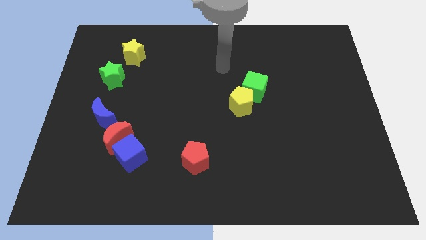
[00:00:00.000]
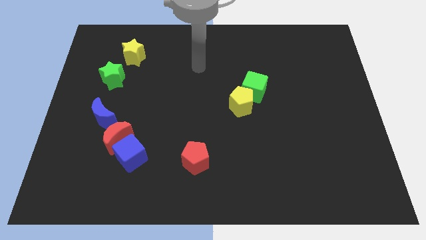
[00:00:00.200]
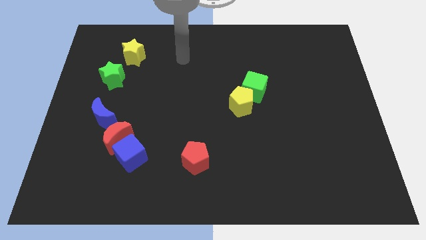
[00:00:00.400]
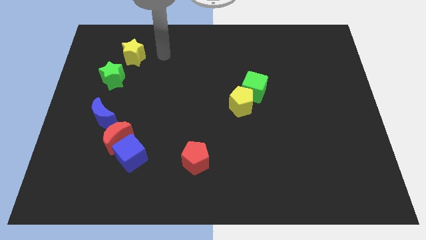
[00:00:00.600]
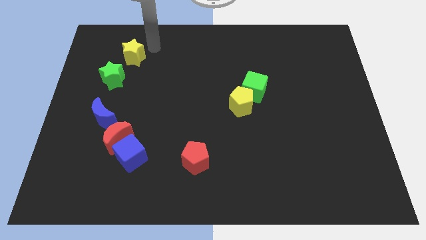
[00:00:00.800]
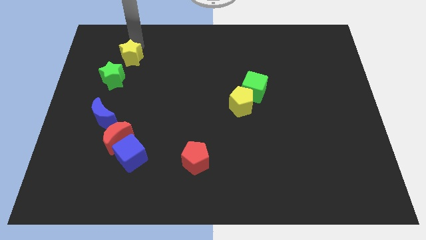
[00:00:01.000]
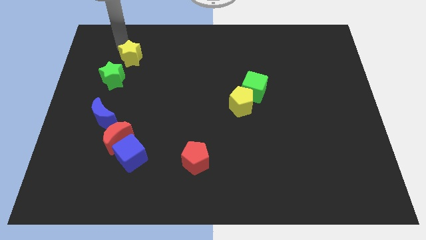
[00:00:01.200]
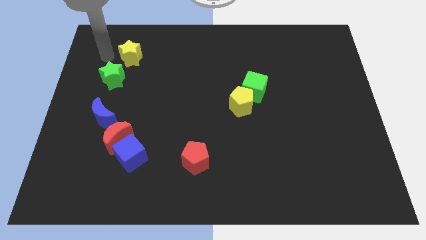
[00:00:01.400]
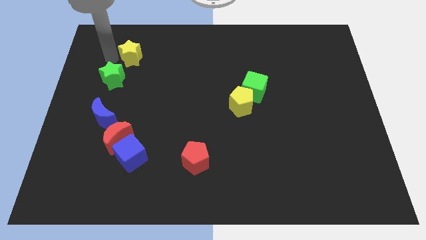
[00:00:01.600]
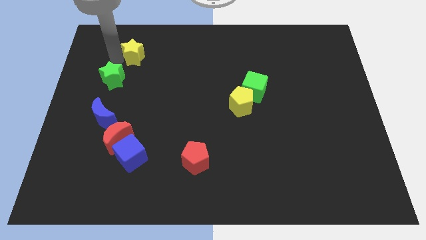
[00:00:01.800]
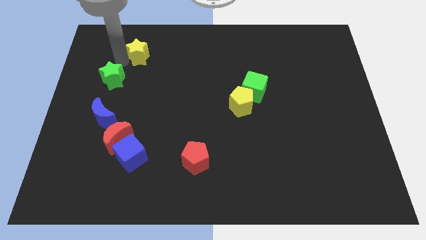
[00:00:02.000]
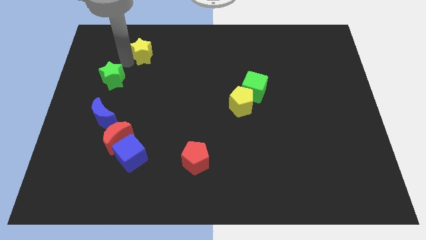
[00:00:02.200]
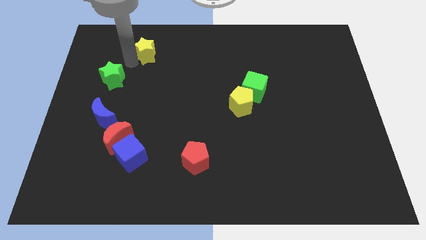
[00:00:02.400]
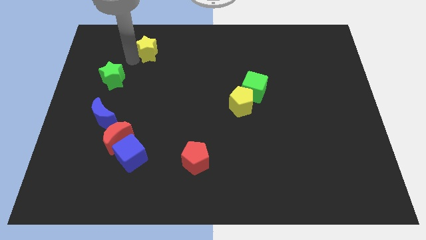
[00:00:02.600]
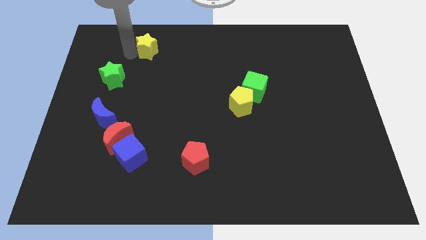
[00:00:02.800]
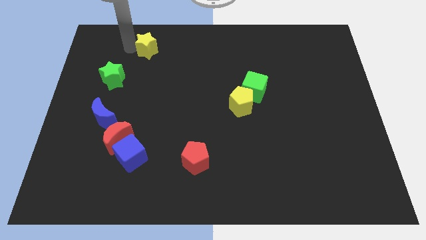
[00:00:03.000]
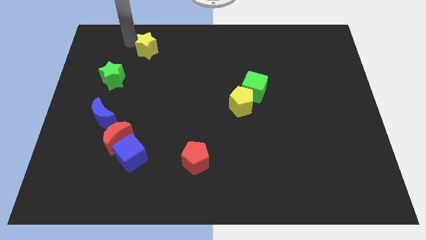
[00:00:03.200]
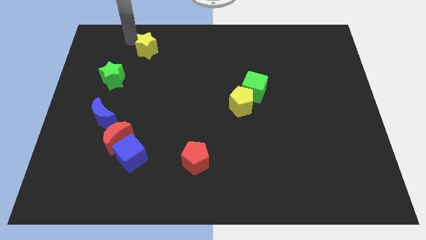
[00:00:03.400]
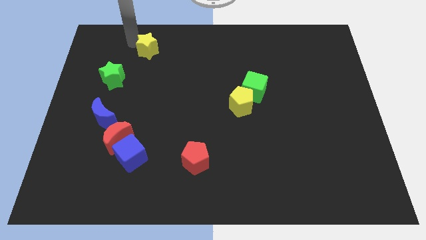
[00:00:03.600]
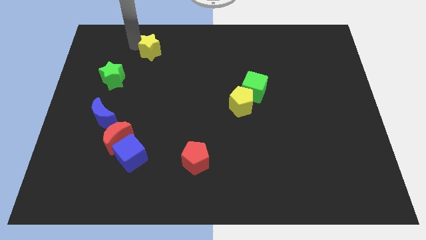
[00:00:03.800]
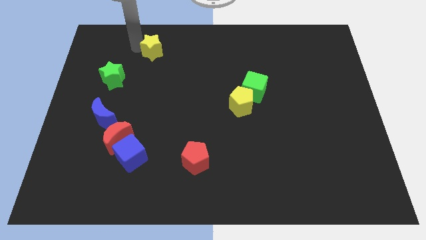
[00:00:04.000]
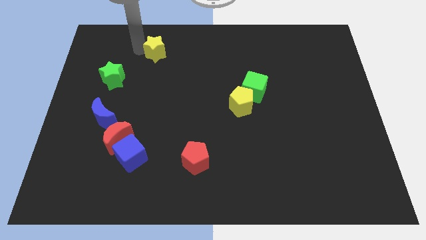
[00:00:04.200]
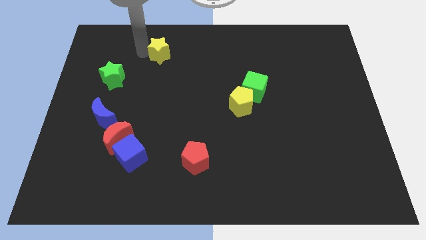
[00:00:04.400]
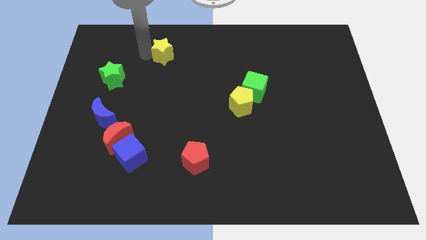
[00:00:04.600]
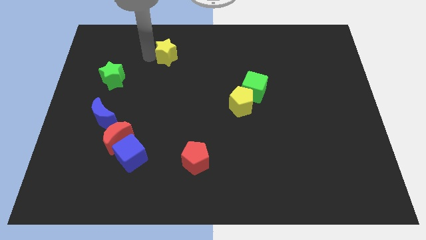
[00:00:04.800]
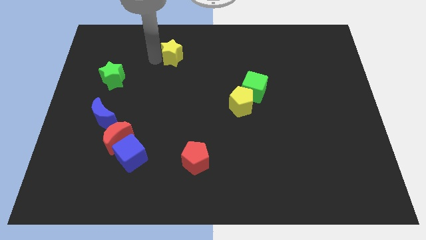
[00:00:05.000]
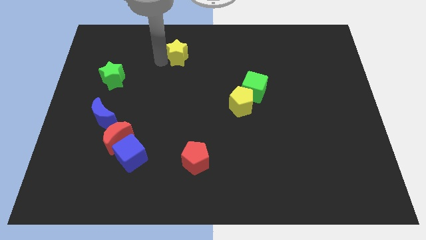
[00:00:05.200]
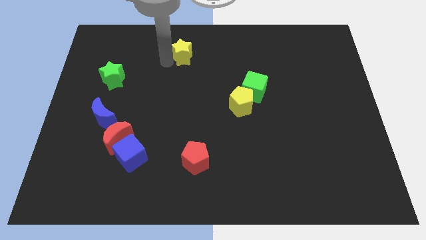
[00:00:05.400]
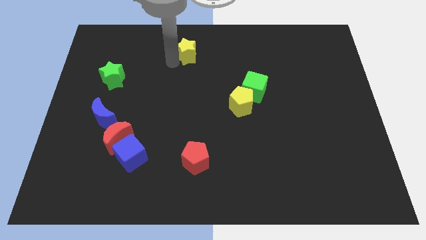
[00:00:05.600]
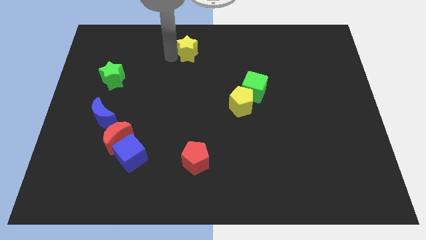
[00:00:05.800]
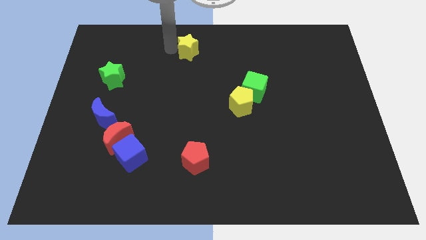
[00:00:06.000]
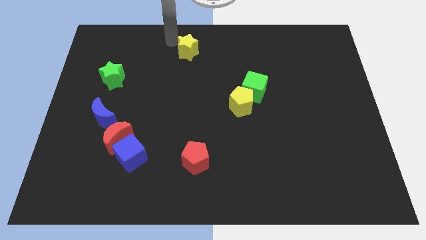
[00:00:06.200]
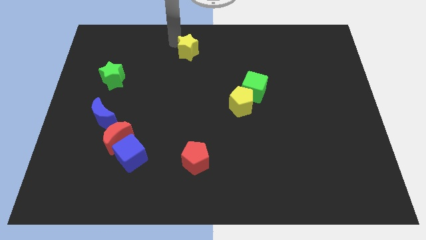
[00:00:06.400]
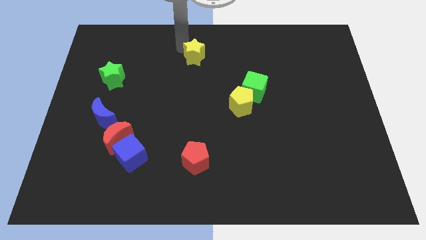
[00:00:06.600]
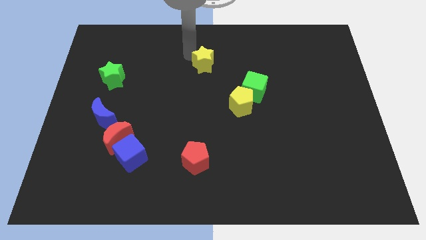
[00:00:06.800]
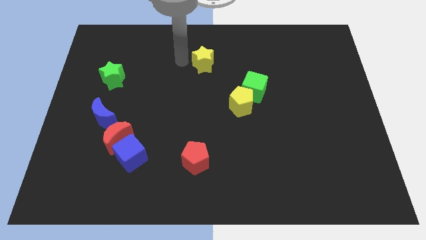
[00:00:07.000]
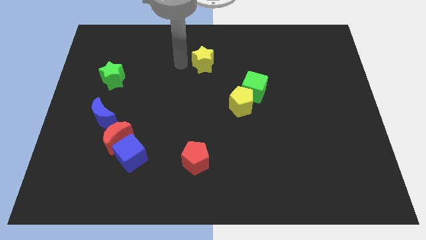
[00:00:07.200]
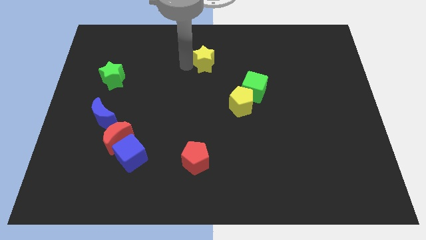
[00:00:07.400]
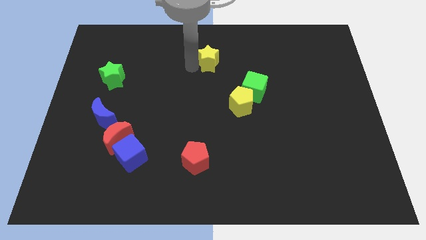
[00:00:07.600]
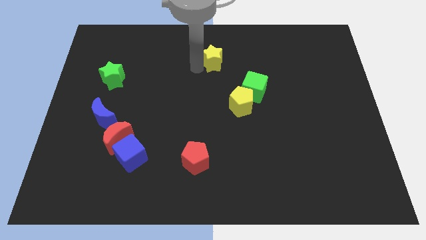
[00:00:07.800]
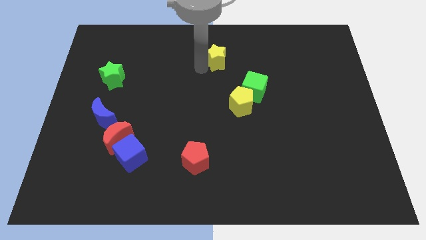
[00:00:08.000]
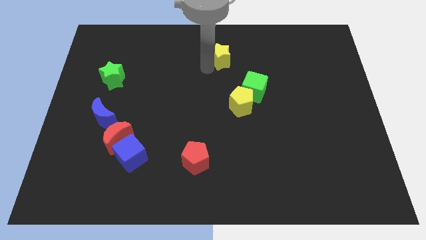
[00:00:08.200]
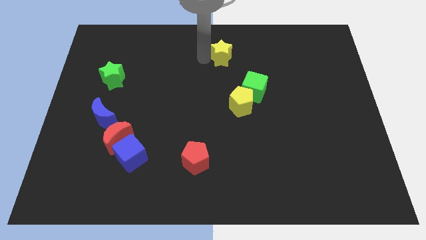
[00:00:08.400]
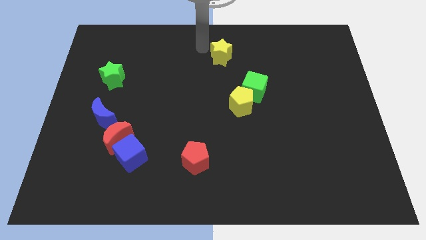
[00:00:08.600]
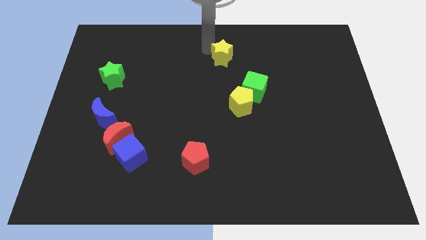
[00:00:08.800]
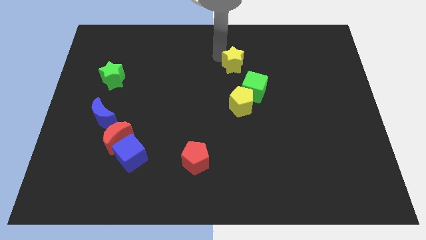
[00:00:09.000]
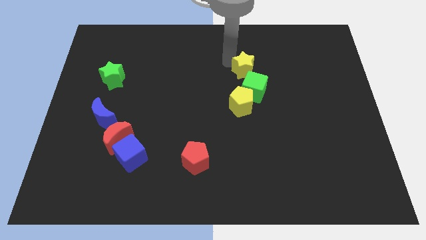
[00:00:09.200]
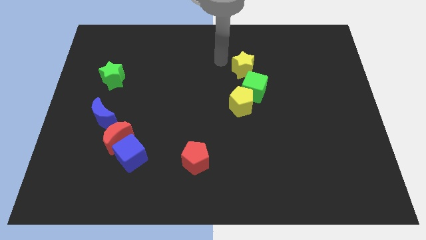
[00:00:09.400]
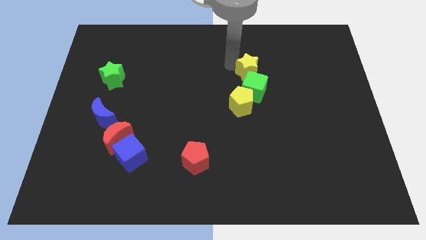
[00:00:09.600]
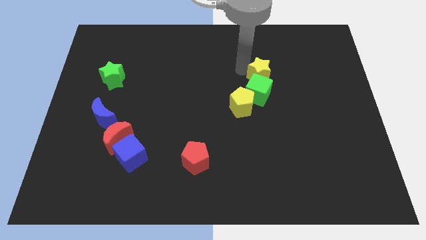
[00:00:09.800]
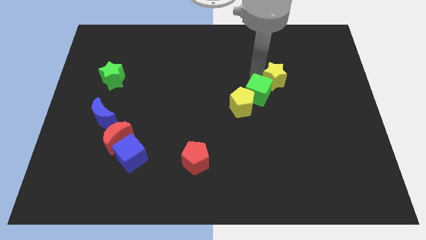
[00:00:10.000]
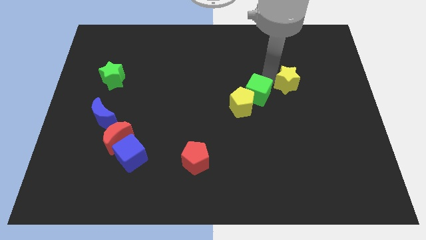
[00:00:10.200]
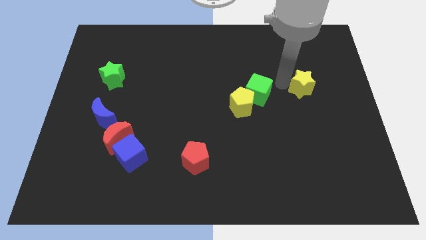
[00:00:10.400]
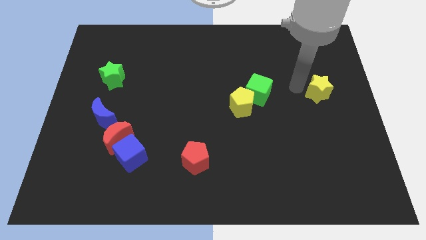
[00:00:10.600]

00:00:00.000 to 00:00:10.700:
put the yellow star to the right side

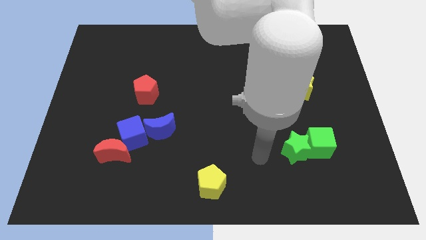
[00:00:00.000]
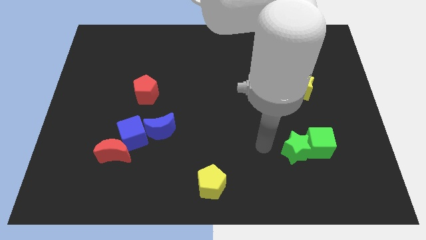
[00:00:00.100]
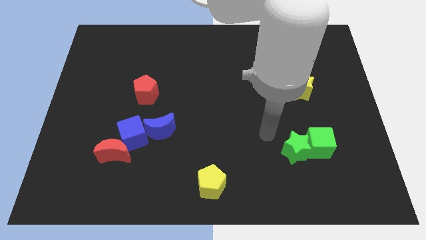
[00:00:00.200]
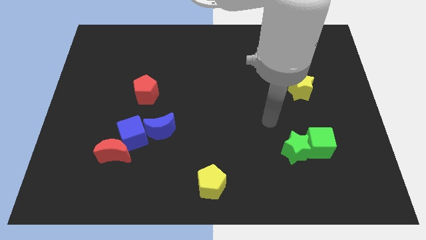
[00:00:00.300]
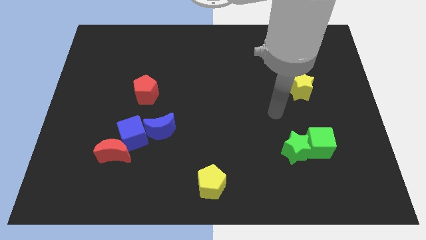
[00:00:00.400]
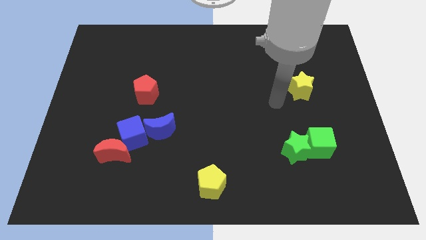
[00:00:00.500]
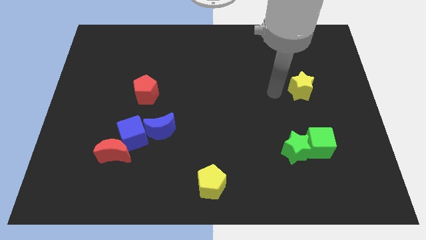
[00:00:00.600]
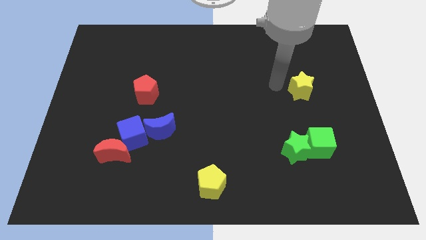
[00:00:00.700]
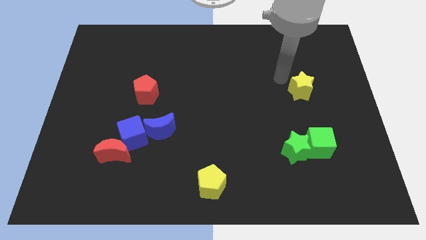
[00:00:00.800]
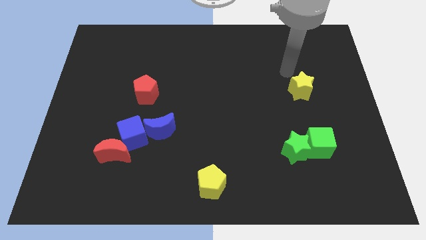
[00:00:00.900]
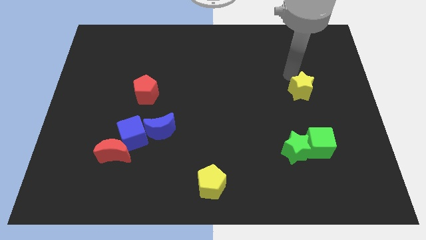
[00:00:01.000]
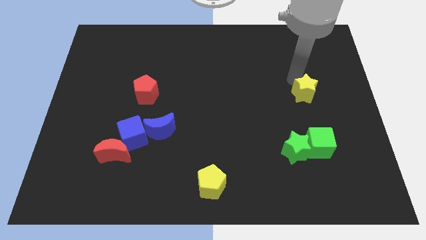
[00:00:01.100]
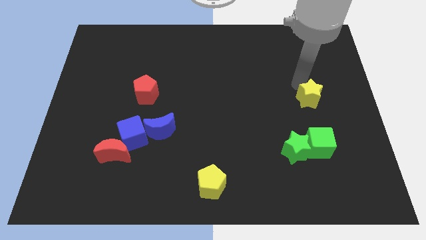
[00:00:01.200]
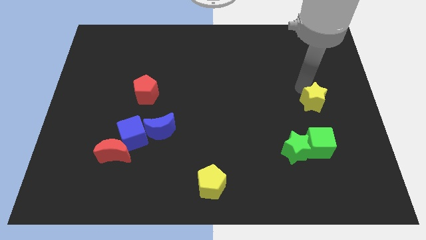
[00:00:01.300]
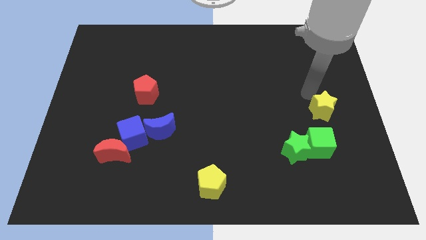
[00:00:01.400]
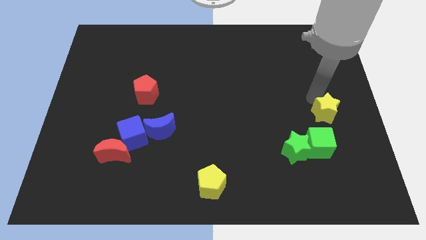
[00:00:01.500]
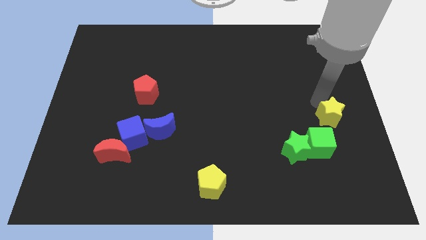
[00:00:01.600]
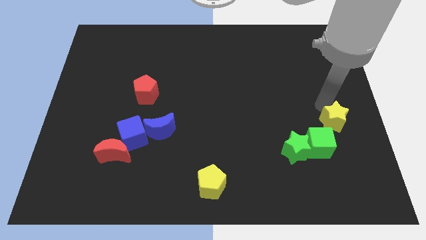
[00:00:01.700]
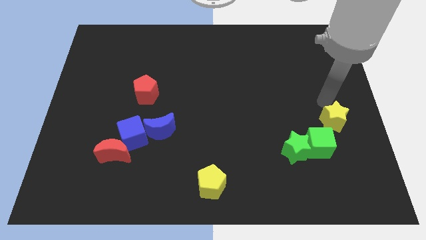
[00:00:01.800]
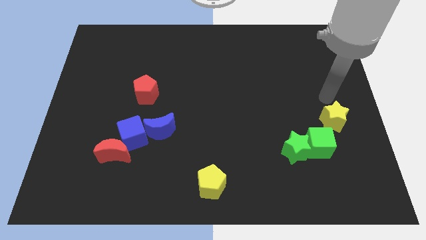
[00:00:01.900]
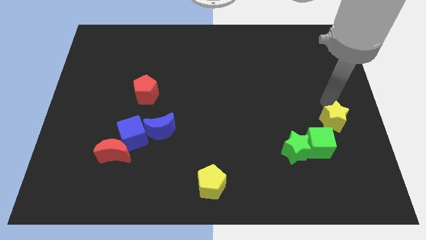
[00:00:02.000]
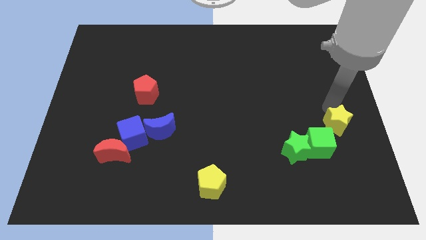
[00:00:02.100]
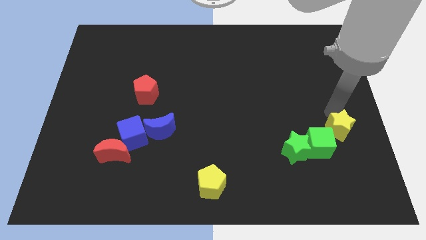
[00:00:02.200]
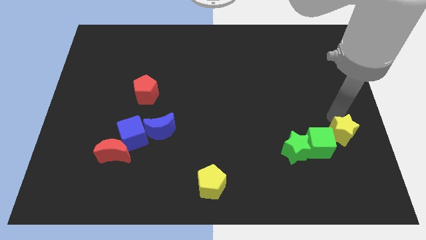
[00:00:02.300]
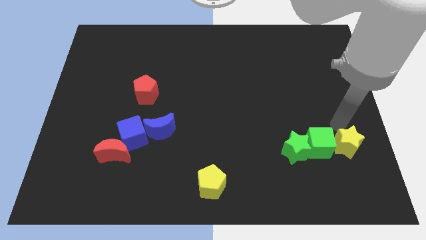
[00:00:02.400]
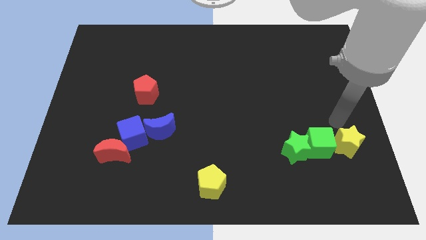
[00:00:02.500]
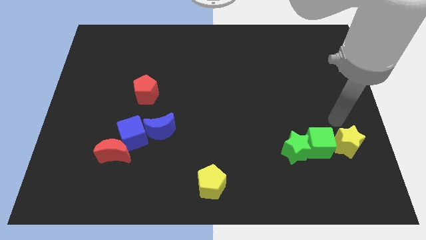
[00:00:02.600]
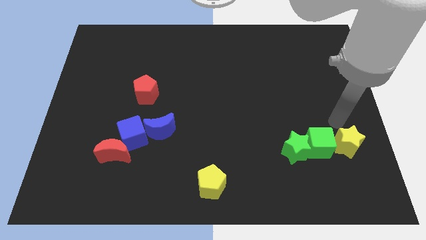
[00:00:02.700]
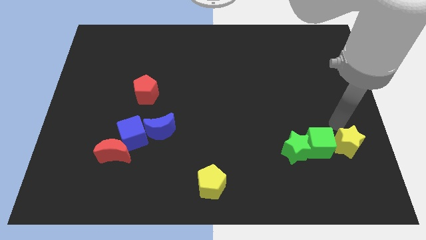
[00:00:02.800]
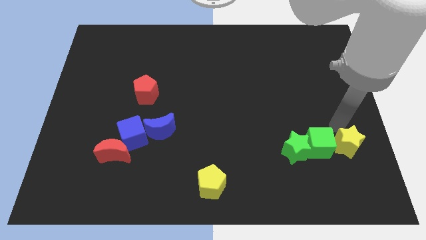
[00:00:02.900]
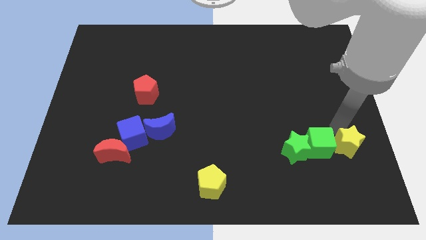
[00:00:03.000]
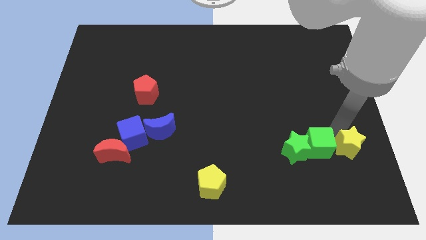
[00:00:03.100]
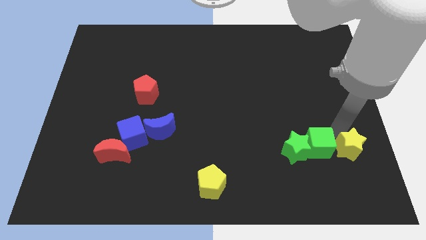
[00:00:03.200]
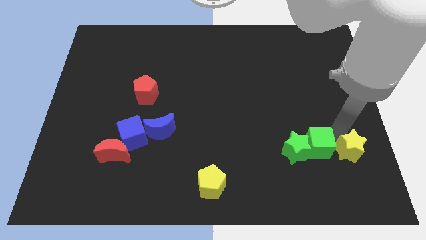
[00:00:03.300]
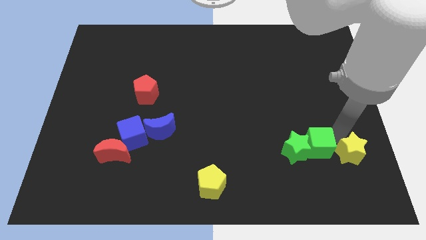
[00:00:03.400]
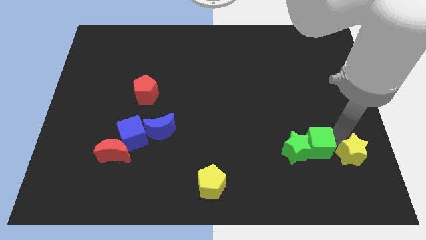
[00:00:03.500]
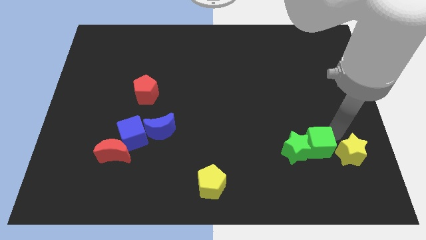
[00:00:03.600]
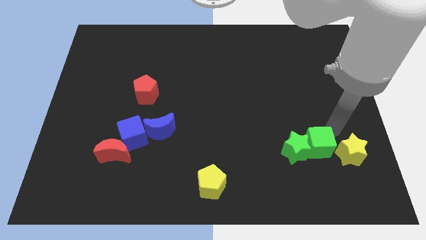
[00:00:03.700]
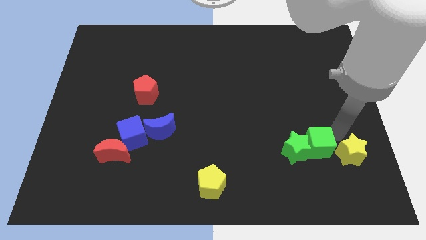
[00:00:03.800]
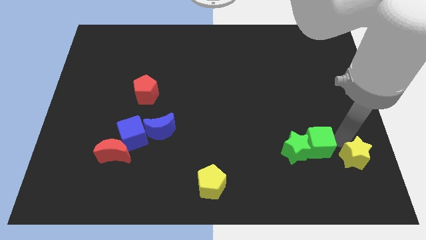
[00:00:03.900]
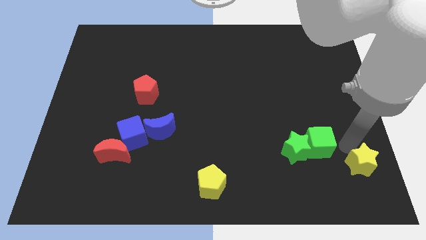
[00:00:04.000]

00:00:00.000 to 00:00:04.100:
push the yellow star to the bottom right
